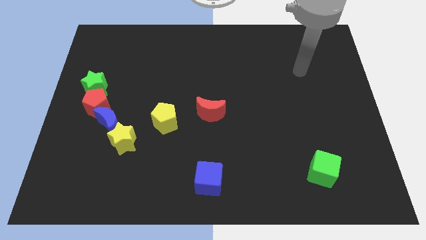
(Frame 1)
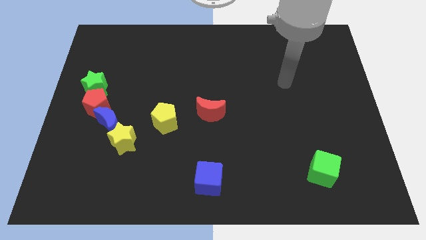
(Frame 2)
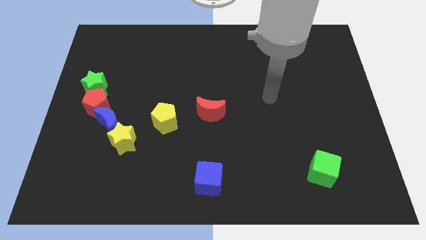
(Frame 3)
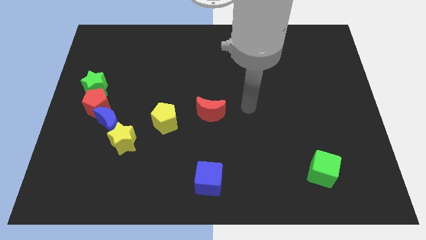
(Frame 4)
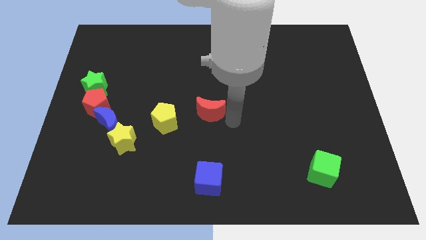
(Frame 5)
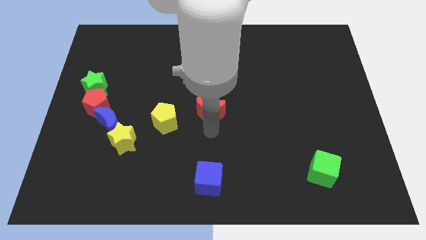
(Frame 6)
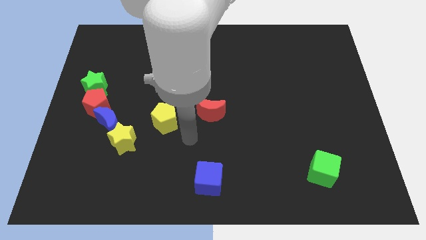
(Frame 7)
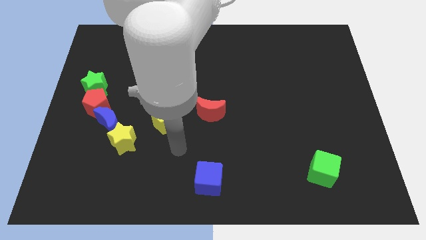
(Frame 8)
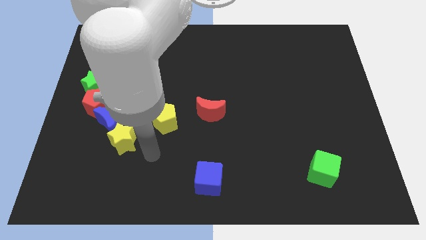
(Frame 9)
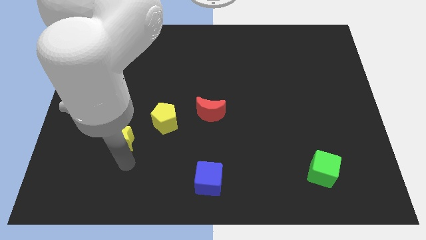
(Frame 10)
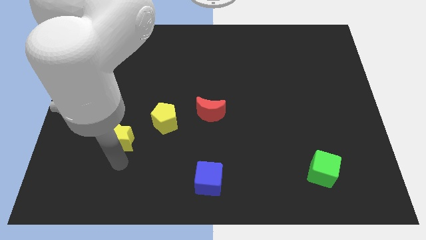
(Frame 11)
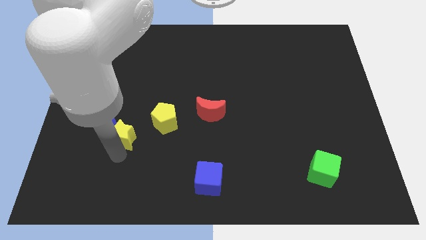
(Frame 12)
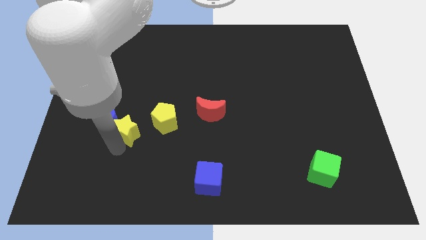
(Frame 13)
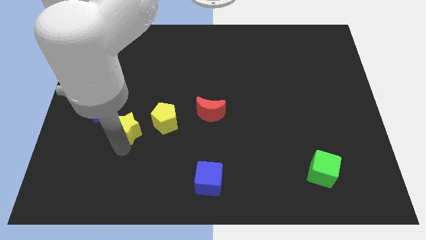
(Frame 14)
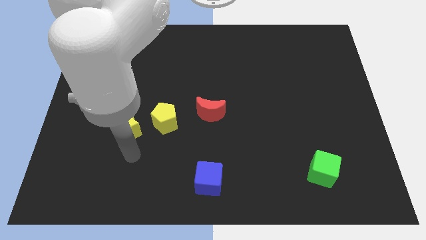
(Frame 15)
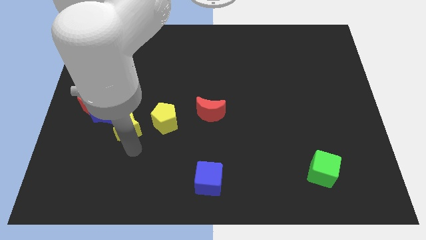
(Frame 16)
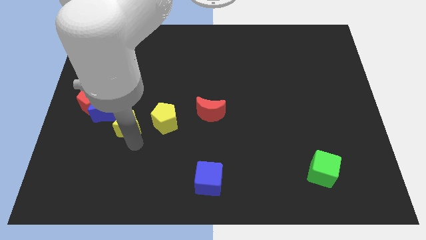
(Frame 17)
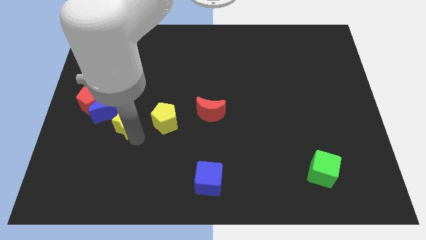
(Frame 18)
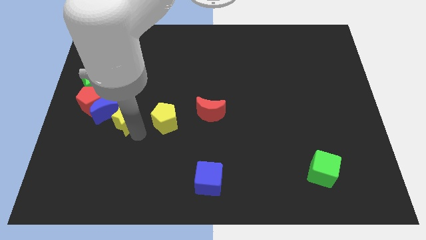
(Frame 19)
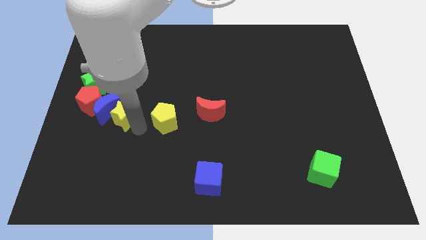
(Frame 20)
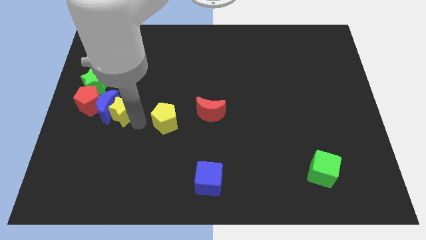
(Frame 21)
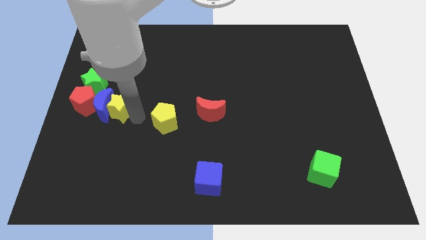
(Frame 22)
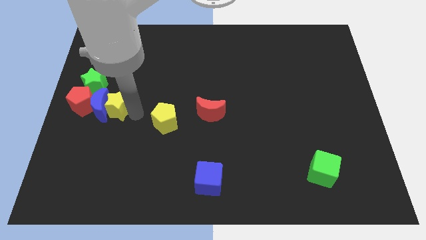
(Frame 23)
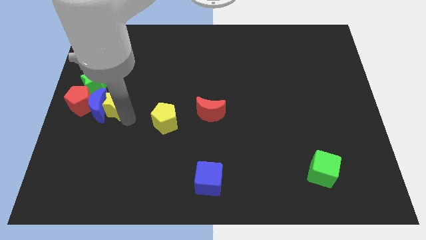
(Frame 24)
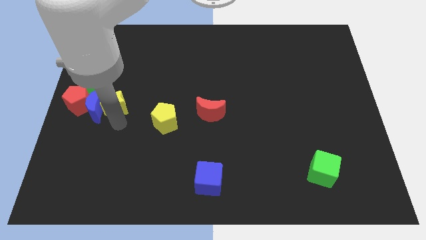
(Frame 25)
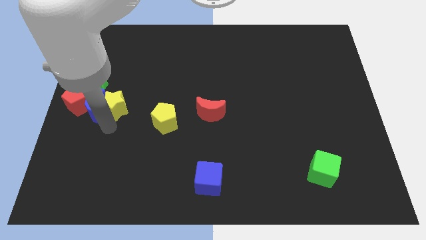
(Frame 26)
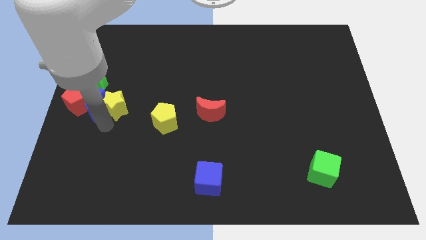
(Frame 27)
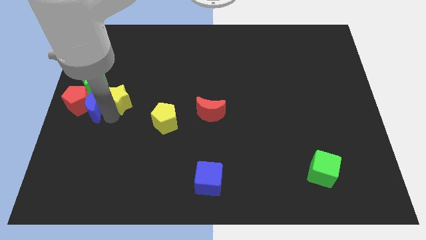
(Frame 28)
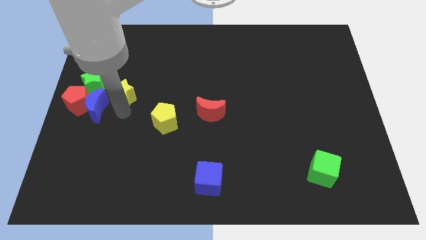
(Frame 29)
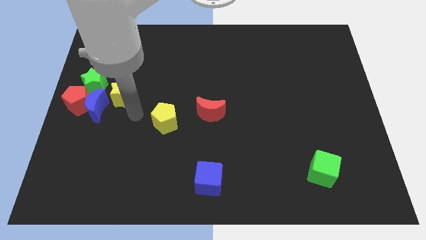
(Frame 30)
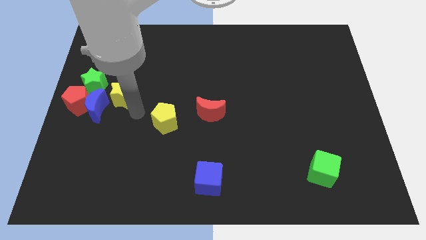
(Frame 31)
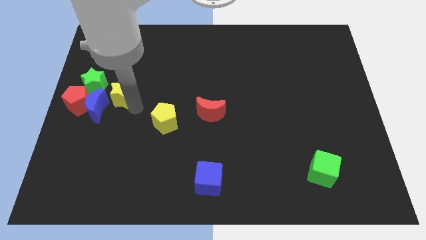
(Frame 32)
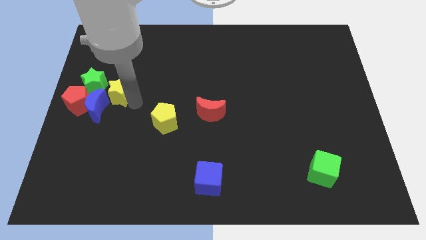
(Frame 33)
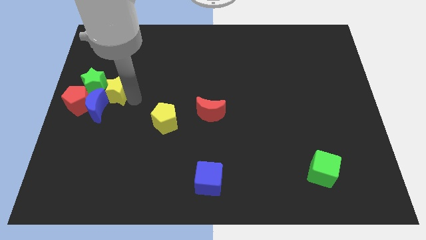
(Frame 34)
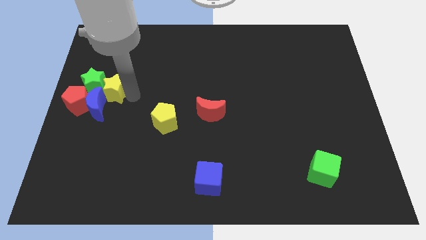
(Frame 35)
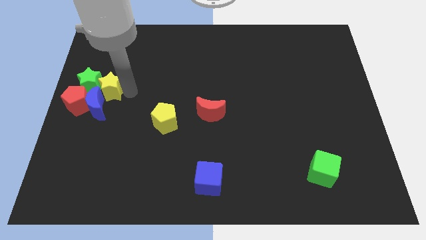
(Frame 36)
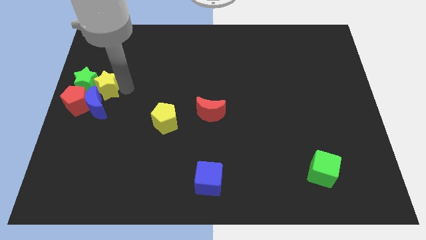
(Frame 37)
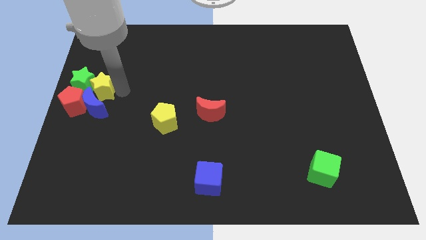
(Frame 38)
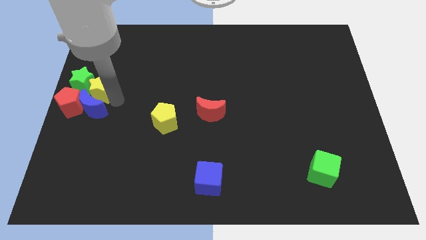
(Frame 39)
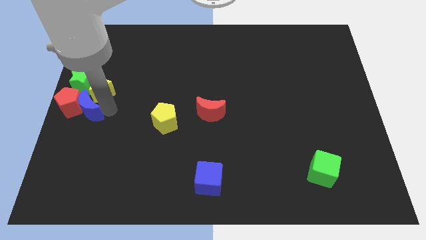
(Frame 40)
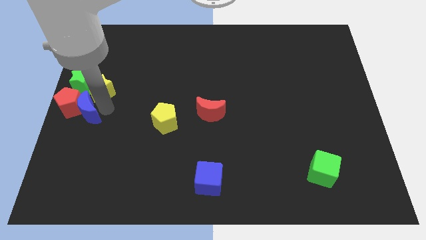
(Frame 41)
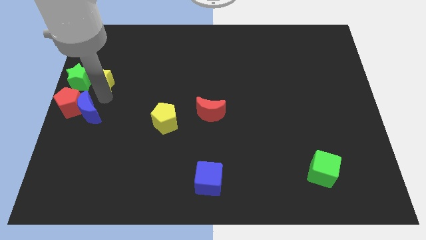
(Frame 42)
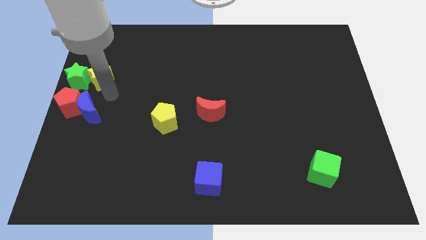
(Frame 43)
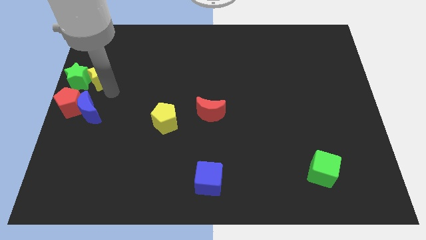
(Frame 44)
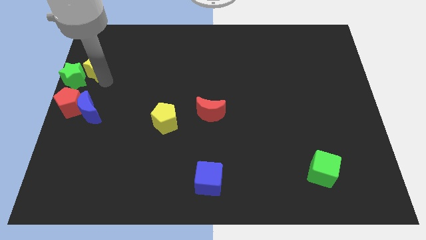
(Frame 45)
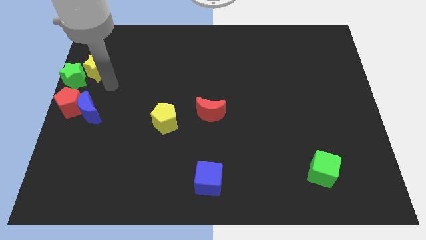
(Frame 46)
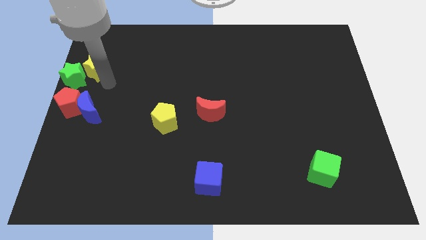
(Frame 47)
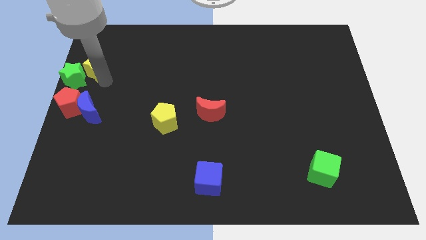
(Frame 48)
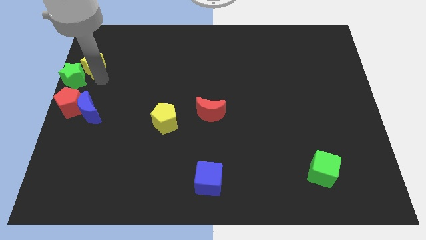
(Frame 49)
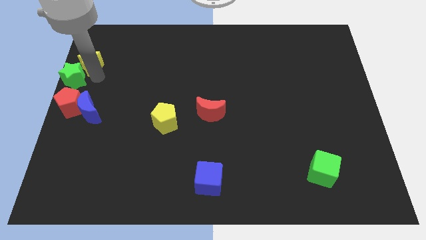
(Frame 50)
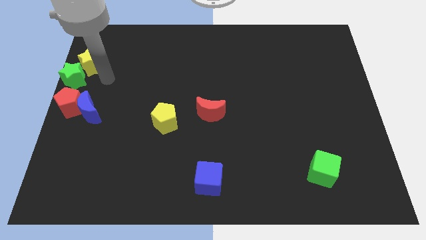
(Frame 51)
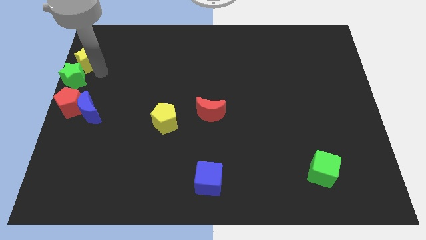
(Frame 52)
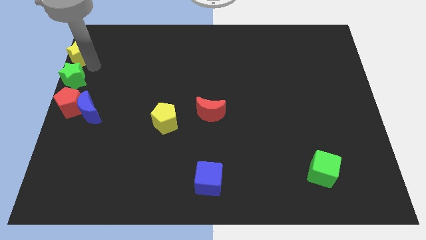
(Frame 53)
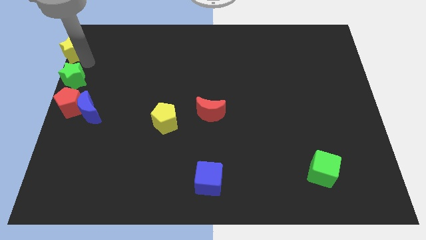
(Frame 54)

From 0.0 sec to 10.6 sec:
put the yellow star to the top left of the board

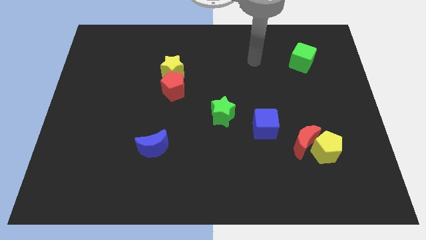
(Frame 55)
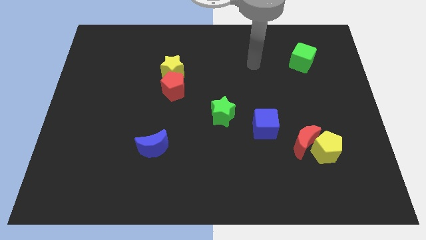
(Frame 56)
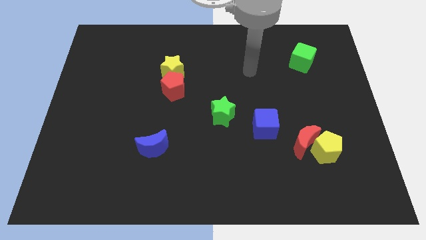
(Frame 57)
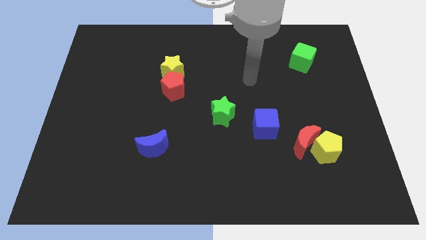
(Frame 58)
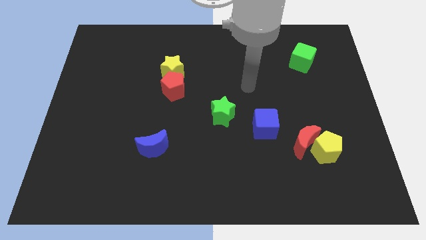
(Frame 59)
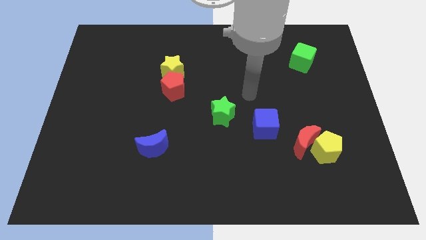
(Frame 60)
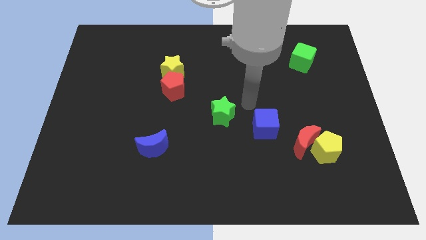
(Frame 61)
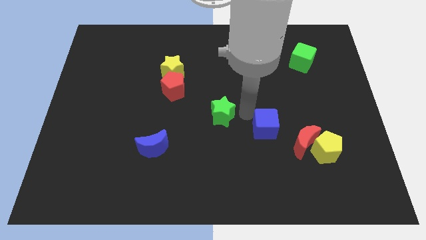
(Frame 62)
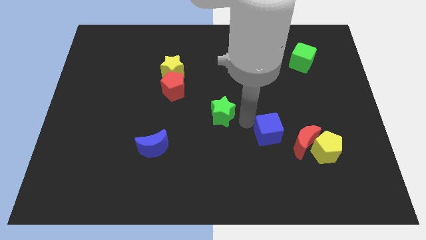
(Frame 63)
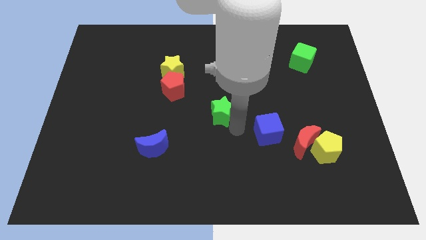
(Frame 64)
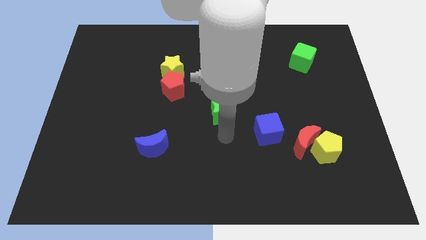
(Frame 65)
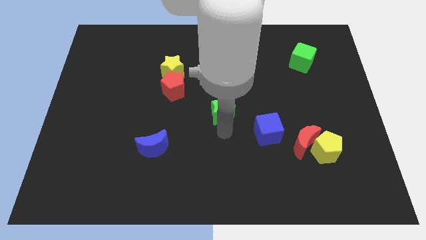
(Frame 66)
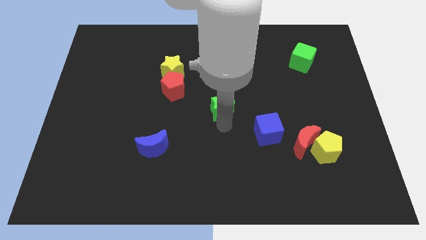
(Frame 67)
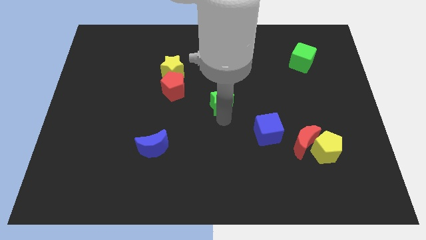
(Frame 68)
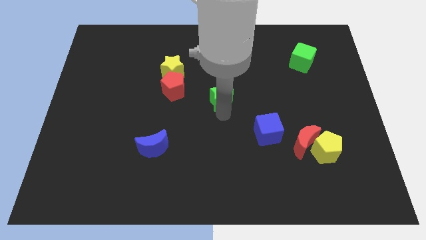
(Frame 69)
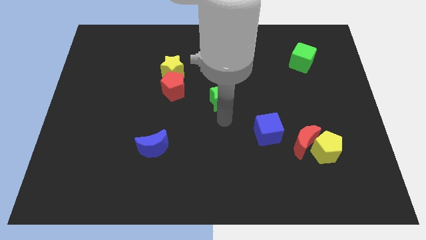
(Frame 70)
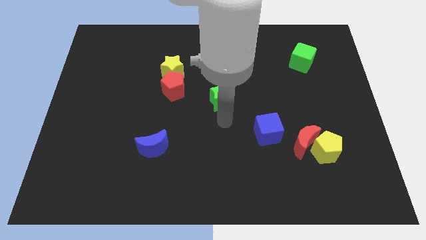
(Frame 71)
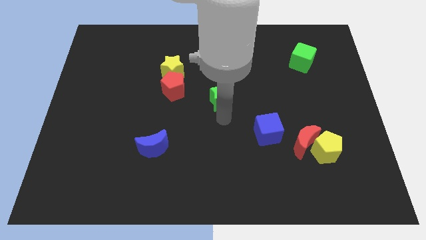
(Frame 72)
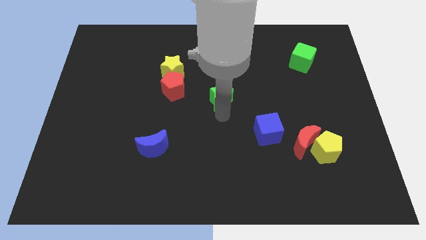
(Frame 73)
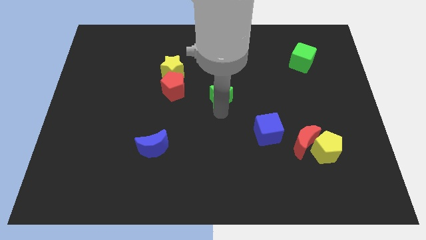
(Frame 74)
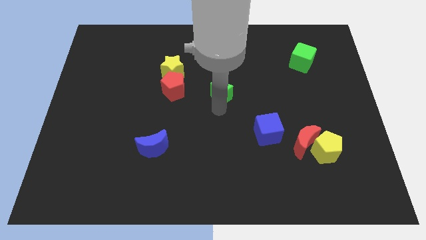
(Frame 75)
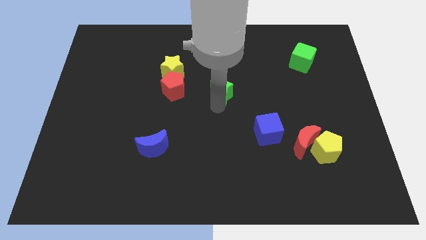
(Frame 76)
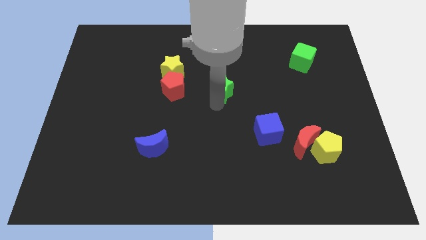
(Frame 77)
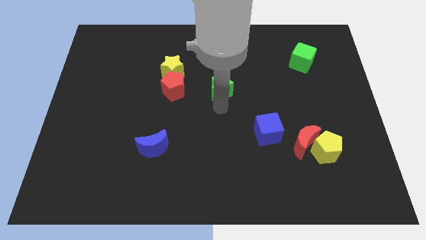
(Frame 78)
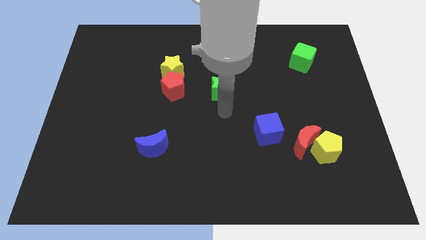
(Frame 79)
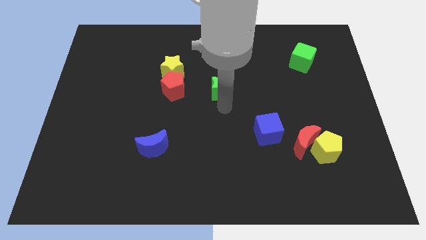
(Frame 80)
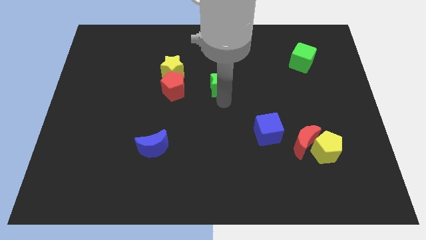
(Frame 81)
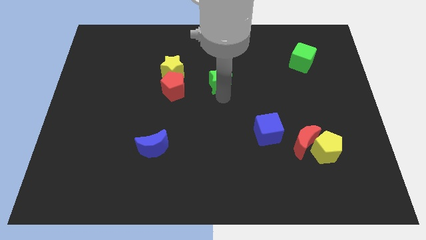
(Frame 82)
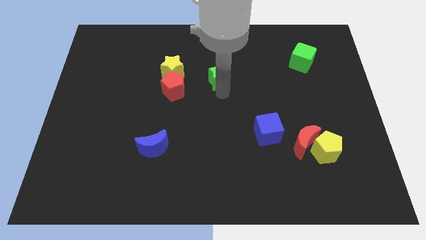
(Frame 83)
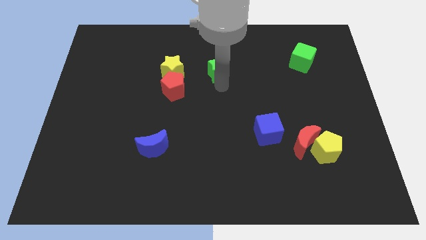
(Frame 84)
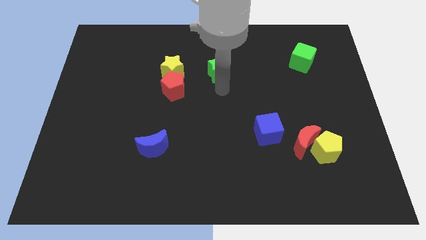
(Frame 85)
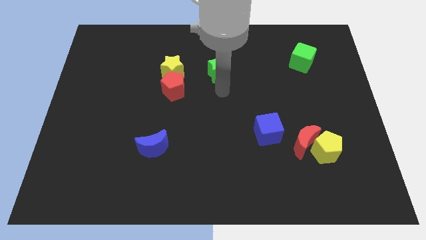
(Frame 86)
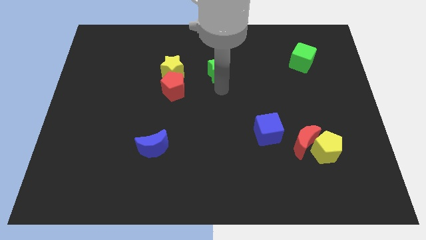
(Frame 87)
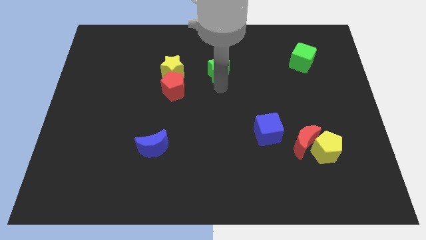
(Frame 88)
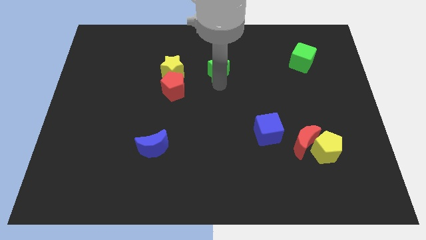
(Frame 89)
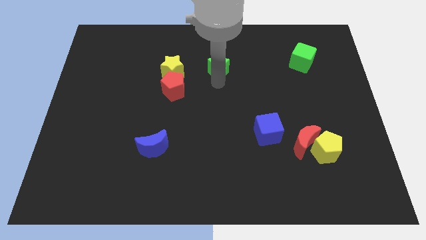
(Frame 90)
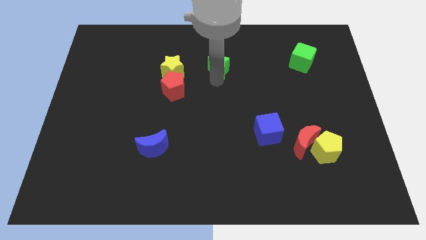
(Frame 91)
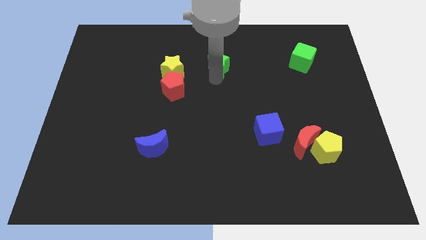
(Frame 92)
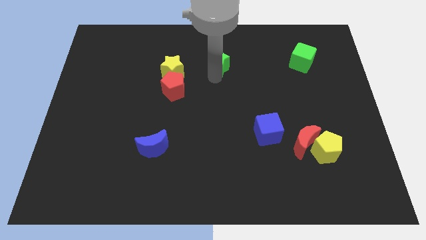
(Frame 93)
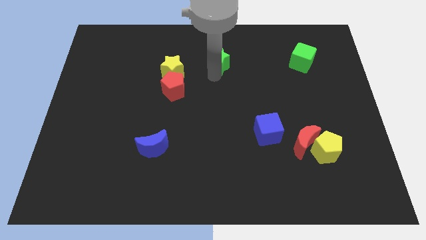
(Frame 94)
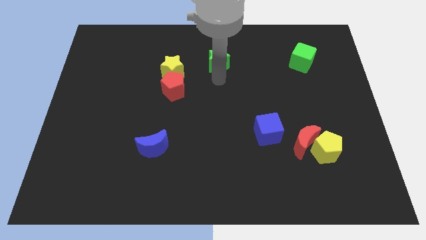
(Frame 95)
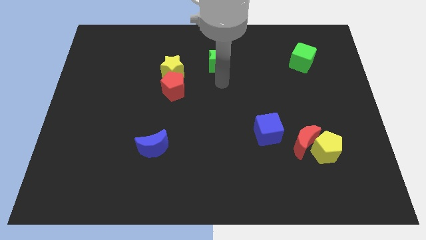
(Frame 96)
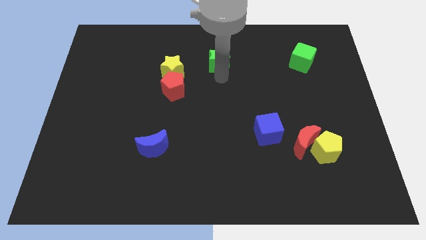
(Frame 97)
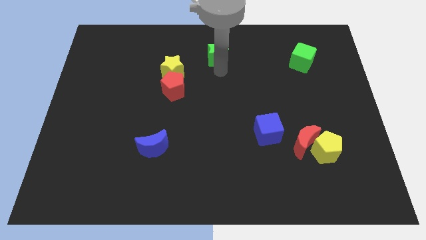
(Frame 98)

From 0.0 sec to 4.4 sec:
put the green star to the top side
